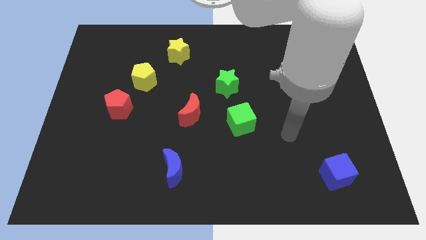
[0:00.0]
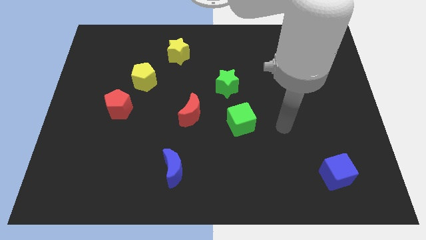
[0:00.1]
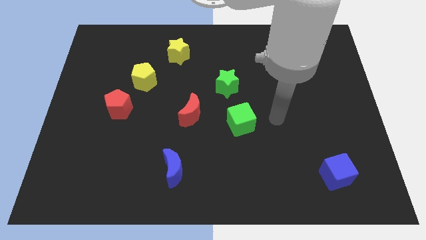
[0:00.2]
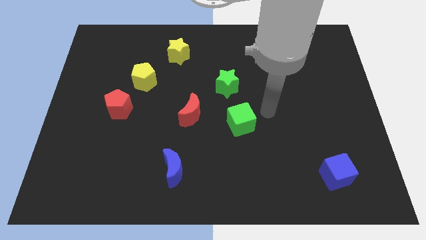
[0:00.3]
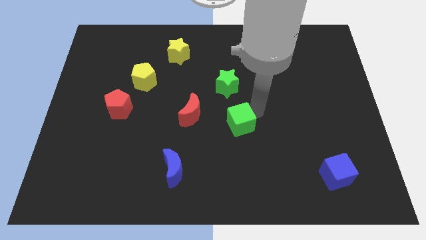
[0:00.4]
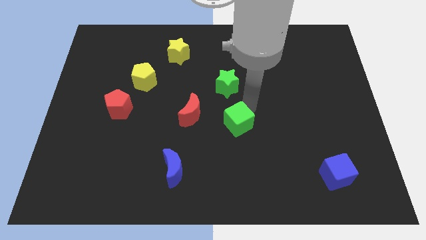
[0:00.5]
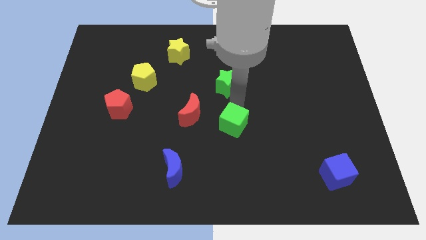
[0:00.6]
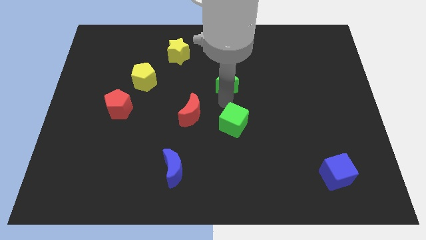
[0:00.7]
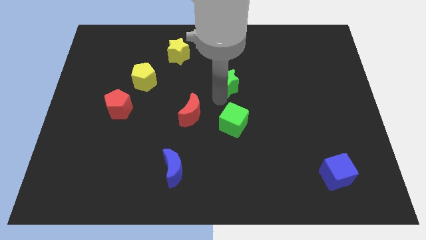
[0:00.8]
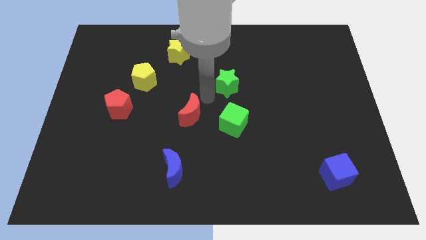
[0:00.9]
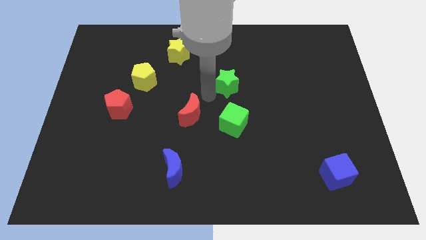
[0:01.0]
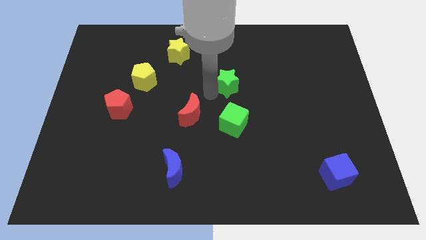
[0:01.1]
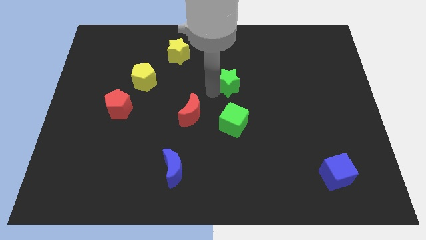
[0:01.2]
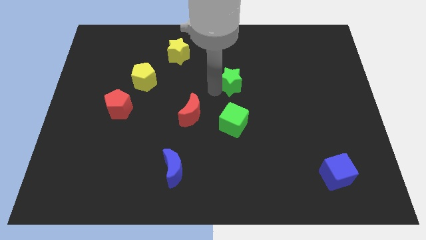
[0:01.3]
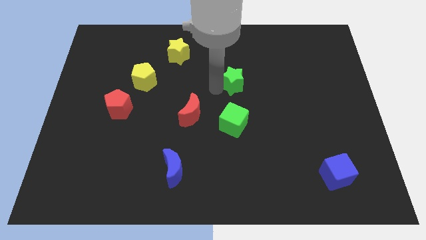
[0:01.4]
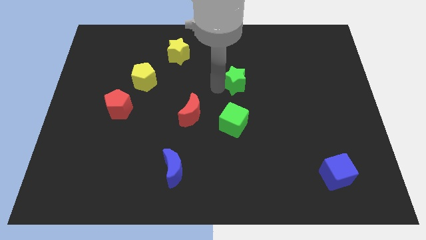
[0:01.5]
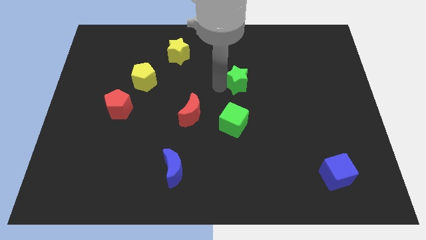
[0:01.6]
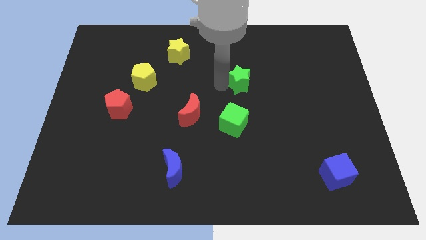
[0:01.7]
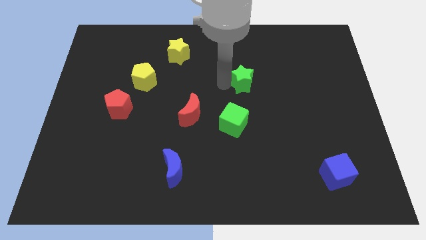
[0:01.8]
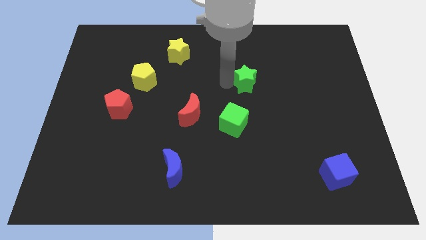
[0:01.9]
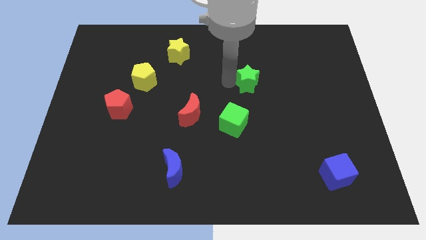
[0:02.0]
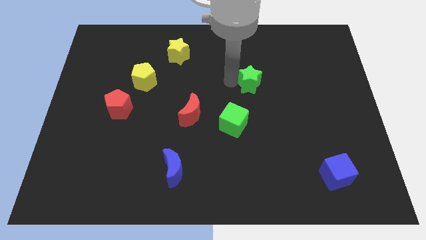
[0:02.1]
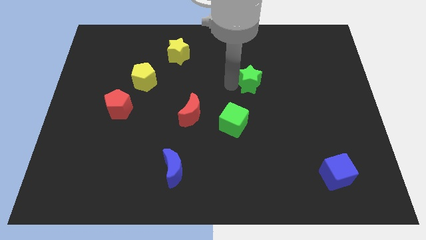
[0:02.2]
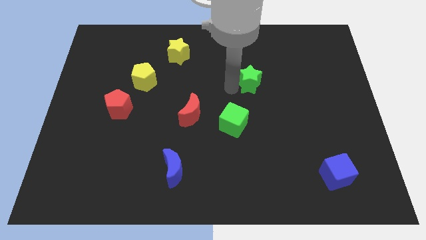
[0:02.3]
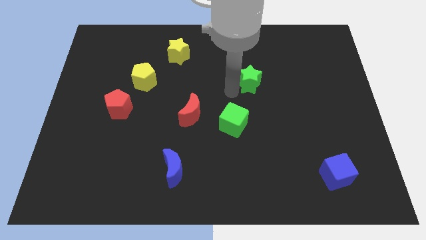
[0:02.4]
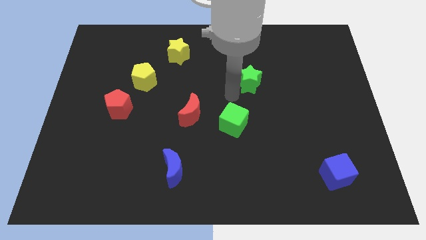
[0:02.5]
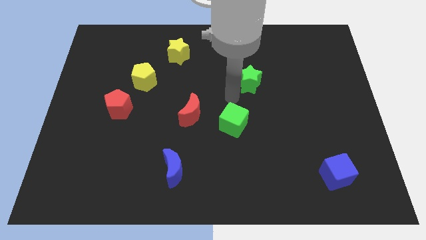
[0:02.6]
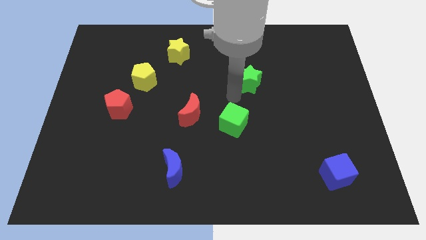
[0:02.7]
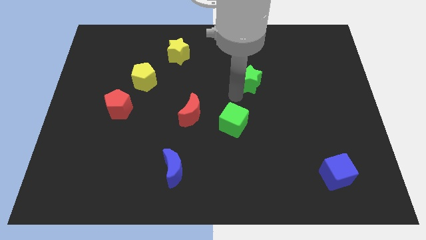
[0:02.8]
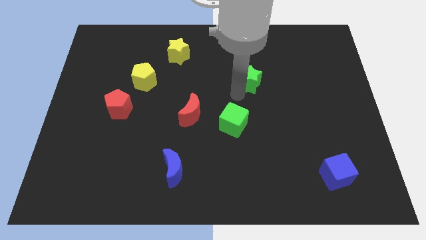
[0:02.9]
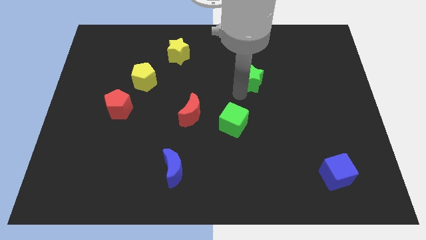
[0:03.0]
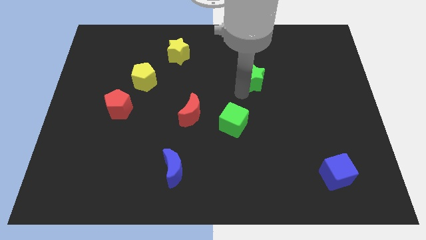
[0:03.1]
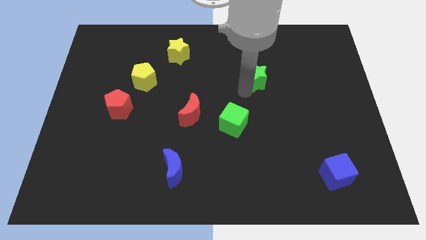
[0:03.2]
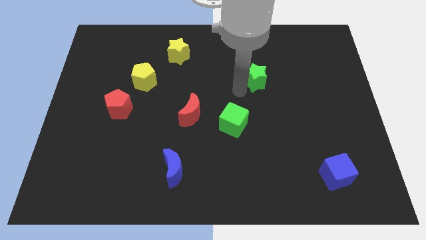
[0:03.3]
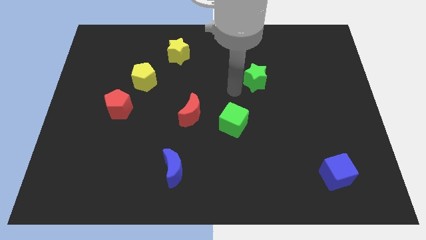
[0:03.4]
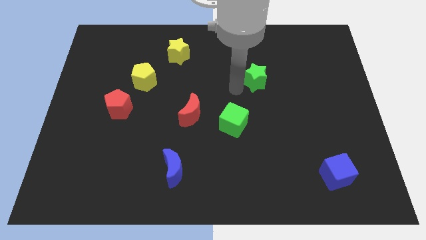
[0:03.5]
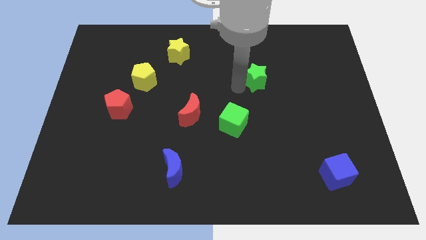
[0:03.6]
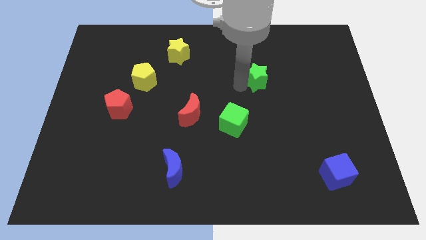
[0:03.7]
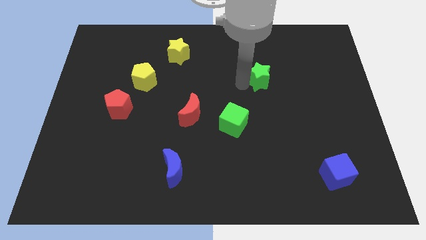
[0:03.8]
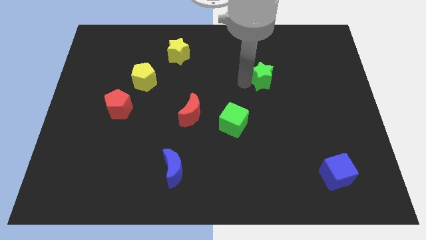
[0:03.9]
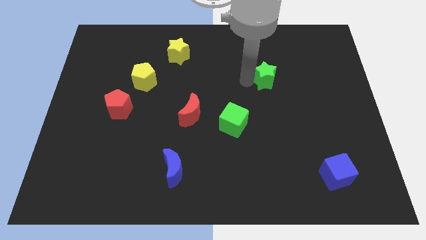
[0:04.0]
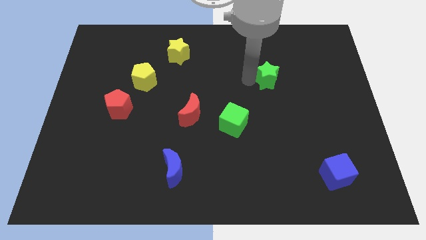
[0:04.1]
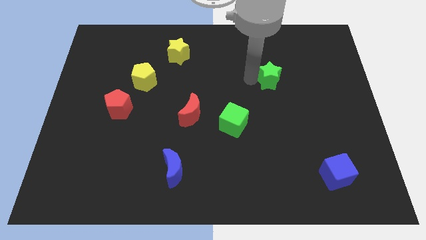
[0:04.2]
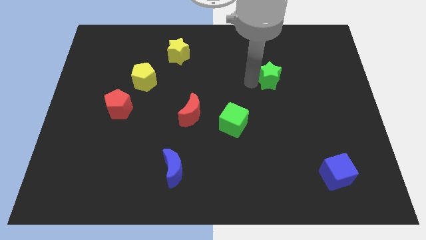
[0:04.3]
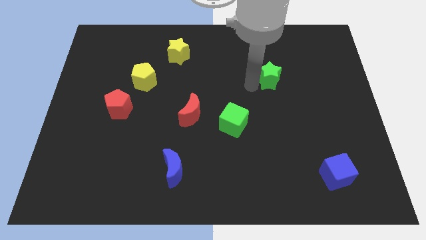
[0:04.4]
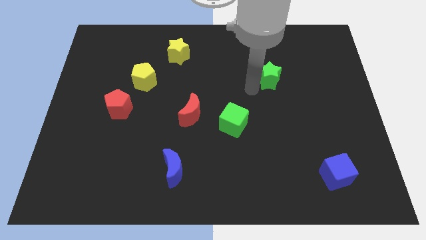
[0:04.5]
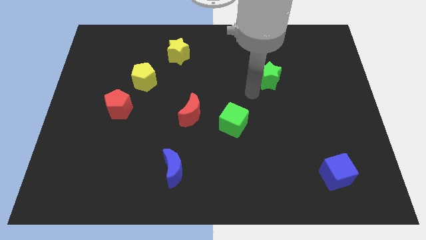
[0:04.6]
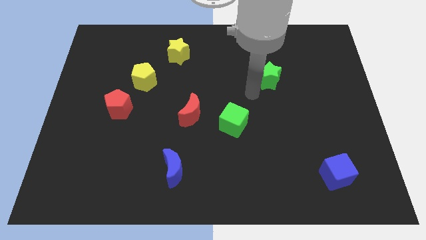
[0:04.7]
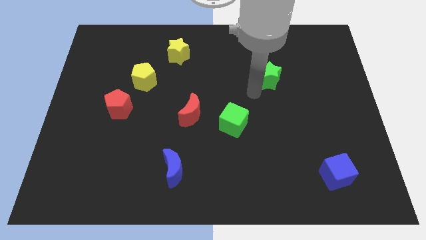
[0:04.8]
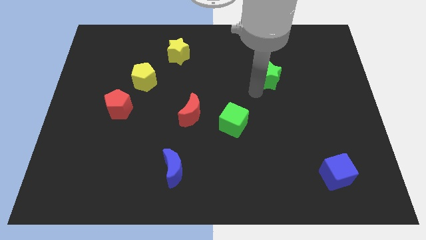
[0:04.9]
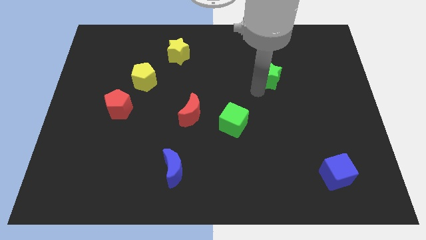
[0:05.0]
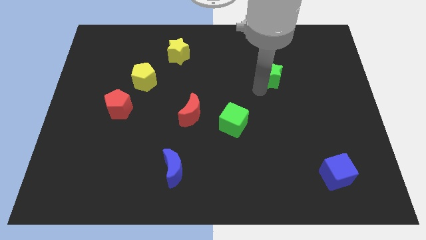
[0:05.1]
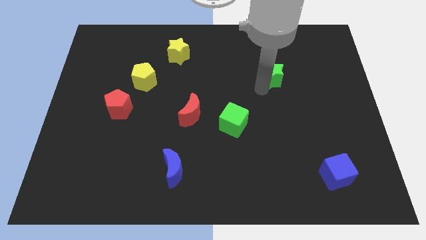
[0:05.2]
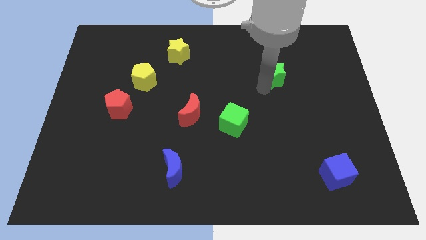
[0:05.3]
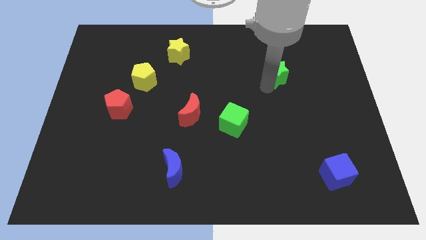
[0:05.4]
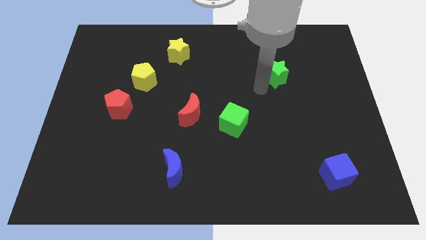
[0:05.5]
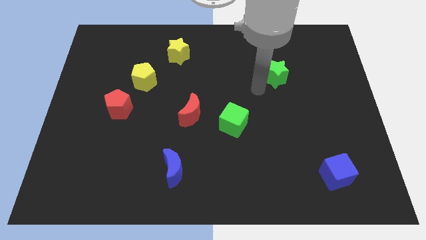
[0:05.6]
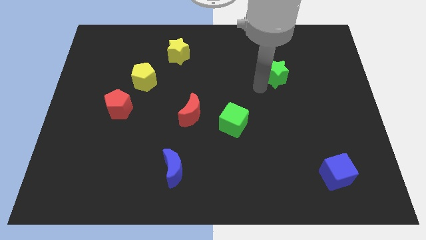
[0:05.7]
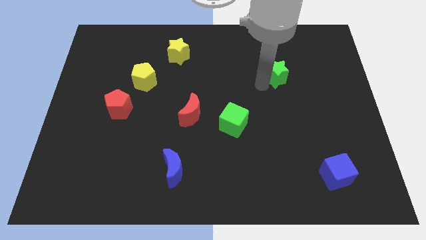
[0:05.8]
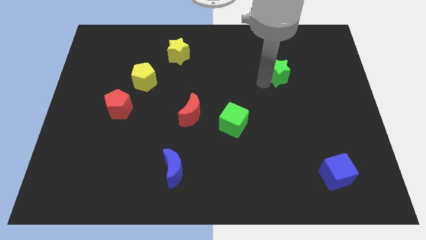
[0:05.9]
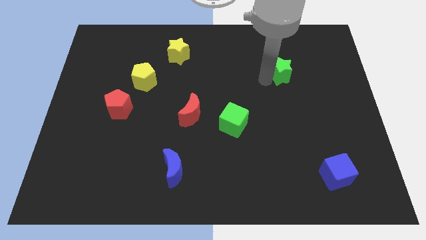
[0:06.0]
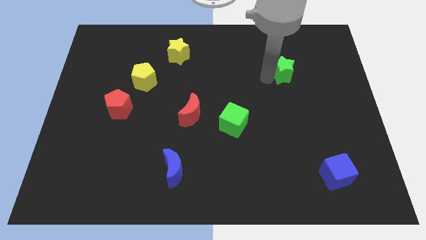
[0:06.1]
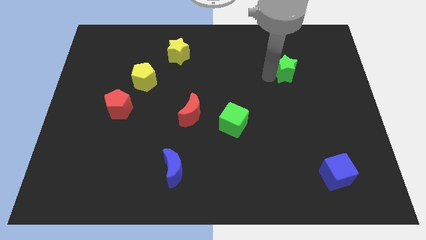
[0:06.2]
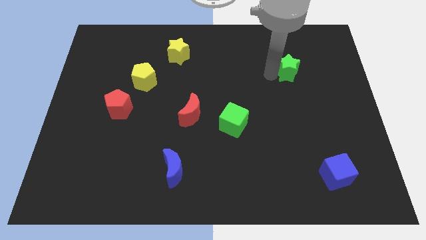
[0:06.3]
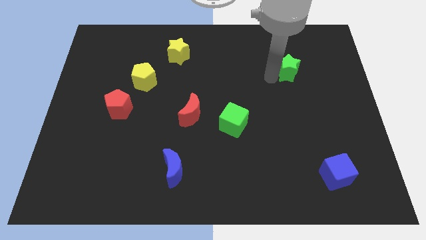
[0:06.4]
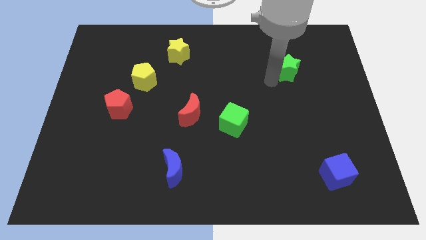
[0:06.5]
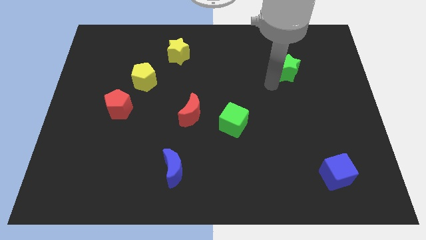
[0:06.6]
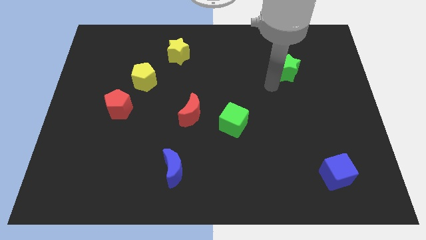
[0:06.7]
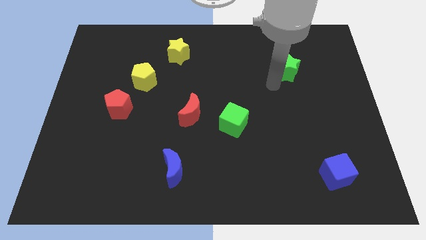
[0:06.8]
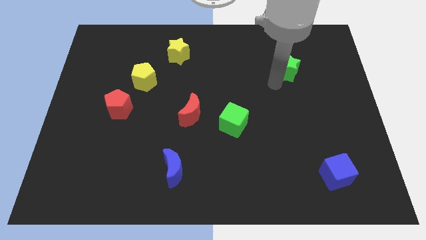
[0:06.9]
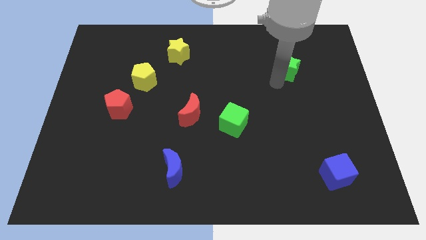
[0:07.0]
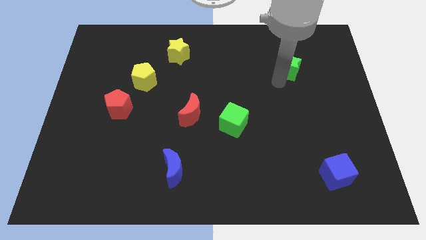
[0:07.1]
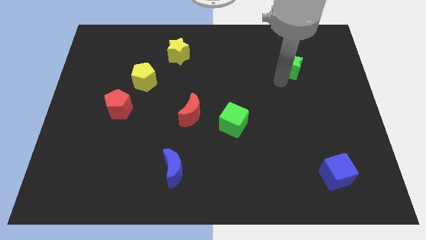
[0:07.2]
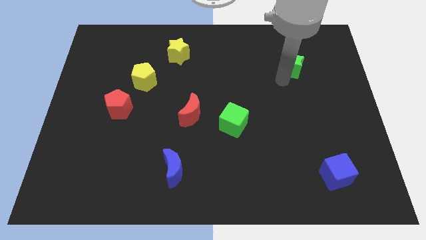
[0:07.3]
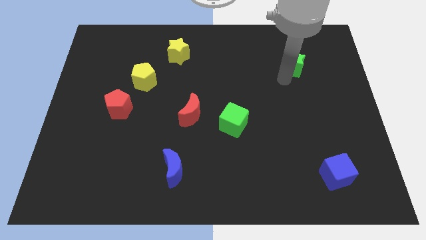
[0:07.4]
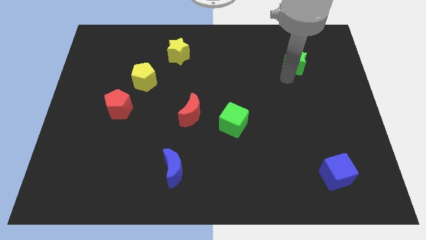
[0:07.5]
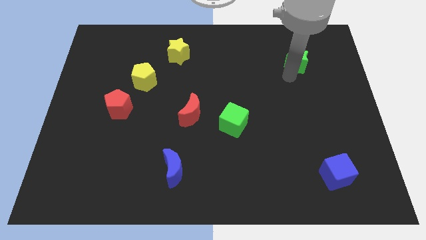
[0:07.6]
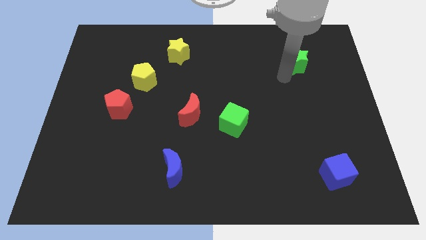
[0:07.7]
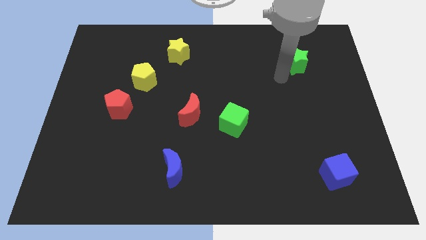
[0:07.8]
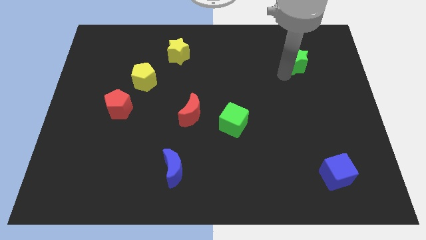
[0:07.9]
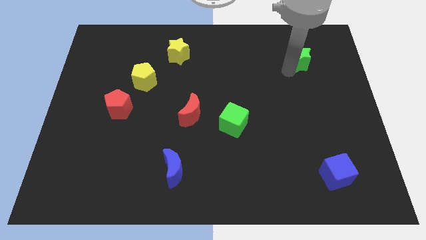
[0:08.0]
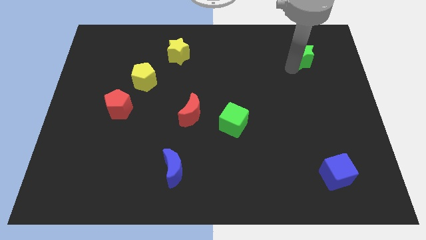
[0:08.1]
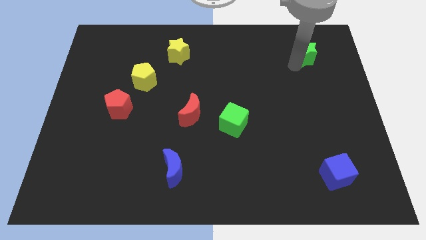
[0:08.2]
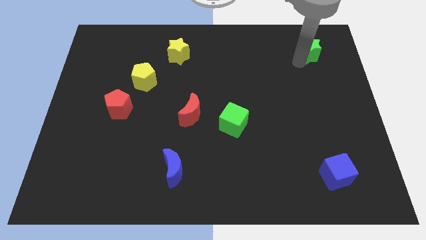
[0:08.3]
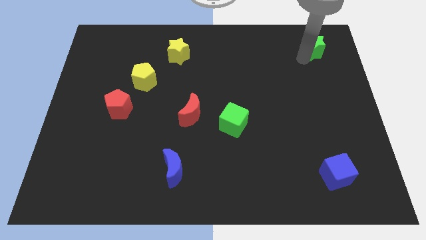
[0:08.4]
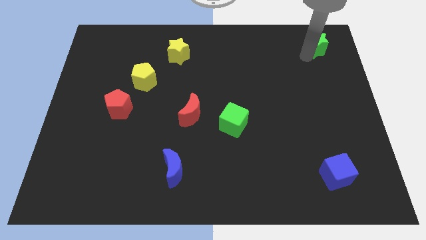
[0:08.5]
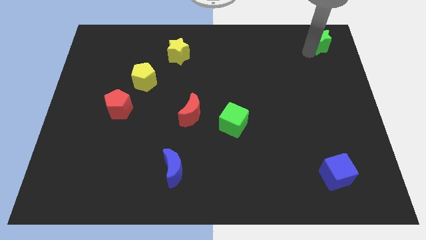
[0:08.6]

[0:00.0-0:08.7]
push the green star to the top right of the board
